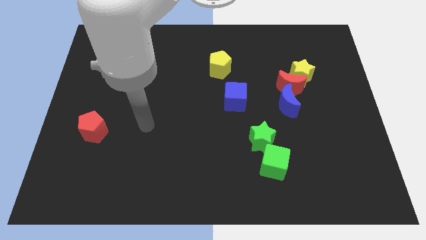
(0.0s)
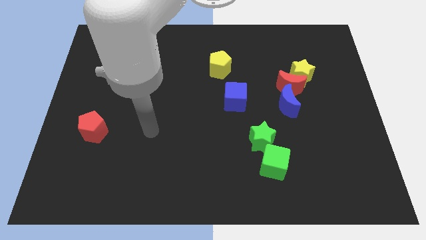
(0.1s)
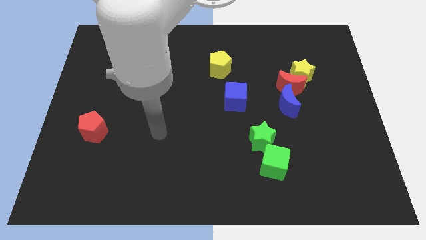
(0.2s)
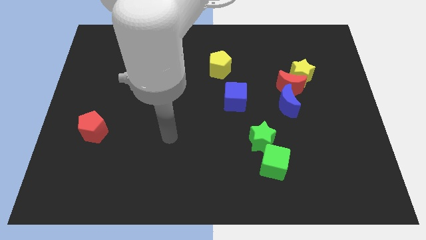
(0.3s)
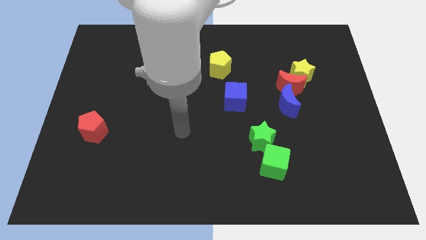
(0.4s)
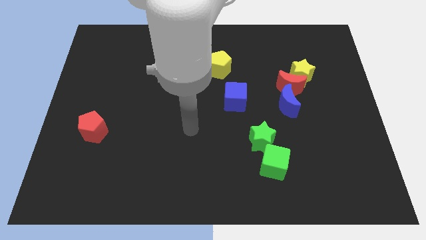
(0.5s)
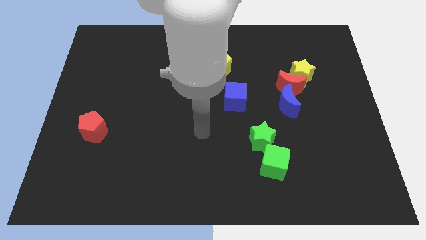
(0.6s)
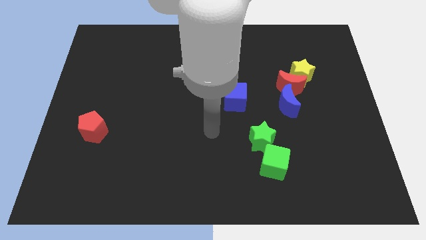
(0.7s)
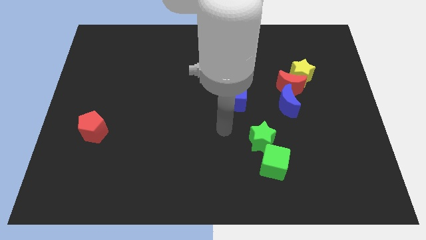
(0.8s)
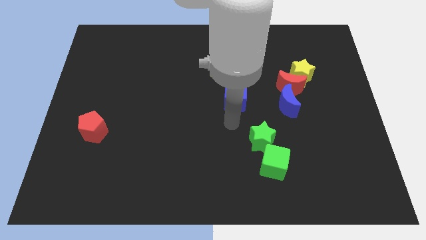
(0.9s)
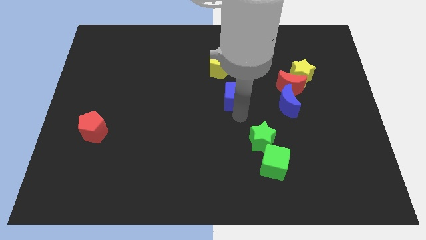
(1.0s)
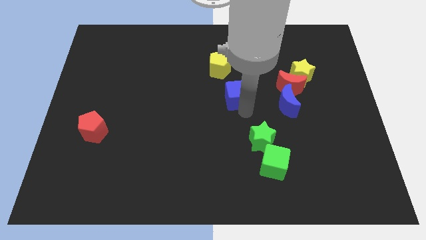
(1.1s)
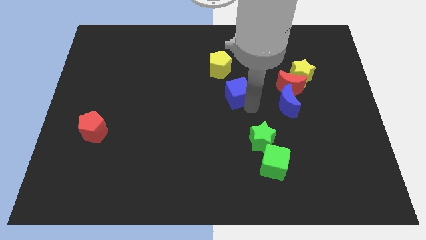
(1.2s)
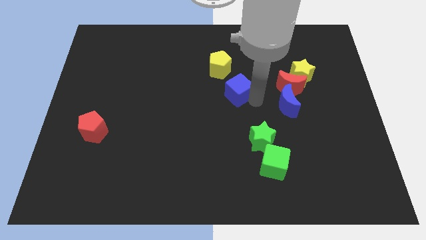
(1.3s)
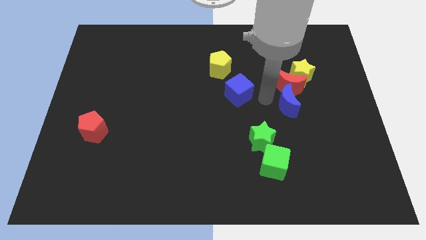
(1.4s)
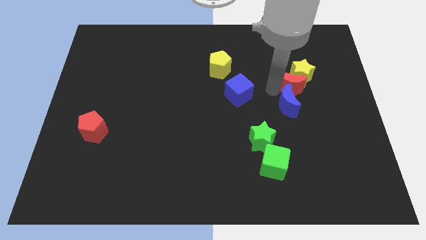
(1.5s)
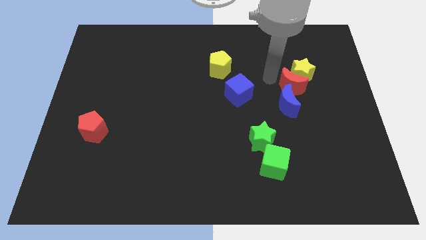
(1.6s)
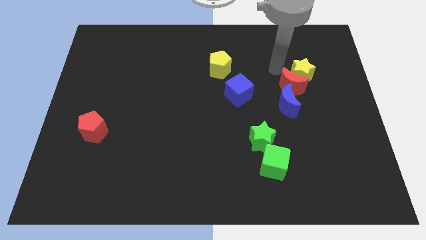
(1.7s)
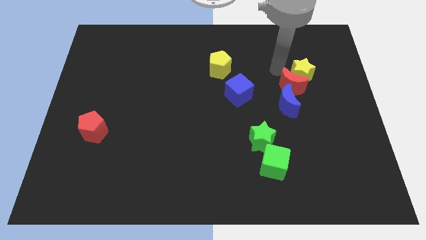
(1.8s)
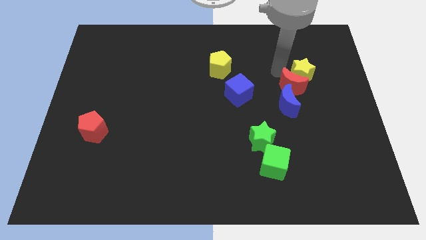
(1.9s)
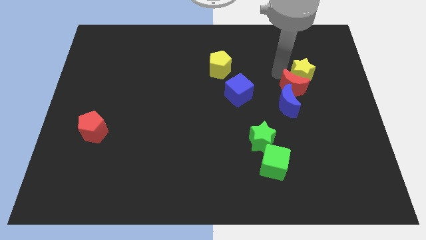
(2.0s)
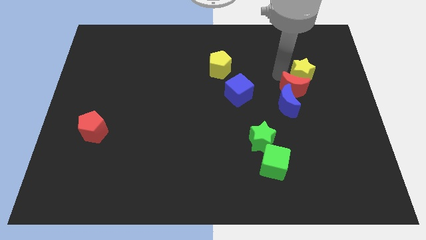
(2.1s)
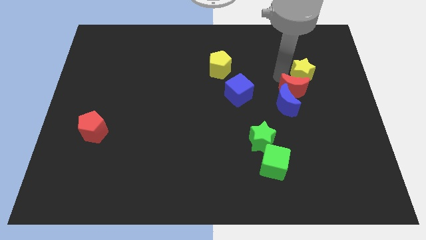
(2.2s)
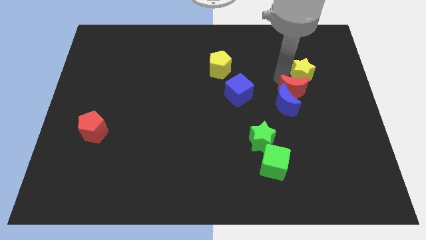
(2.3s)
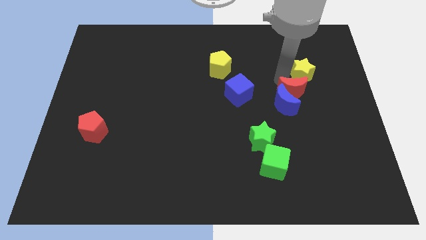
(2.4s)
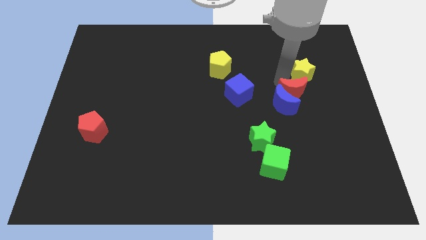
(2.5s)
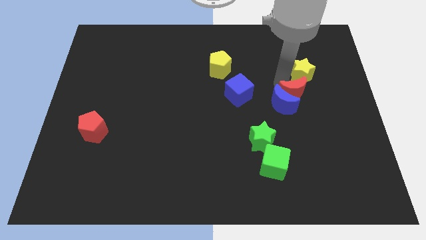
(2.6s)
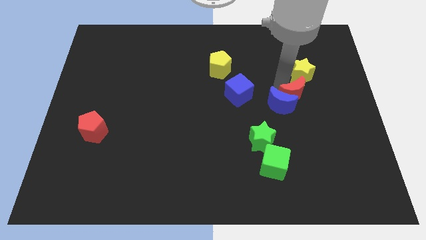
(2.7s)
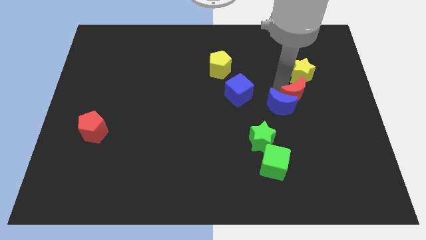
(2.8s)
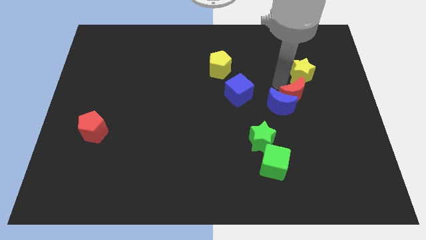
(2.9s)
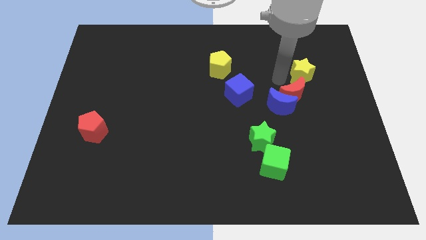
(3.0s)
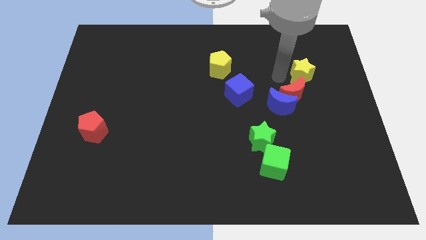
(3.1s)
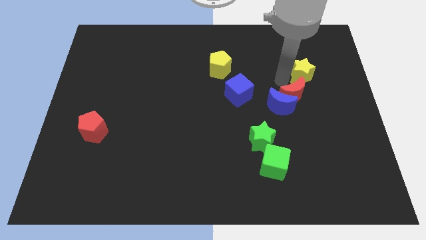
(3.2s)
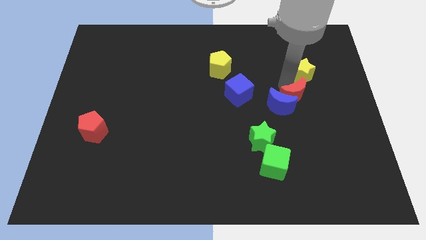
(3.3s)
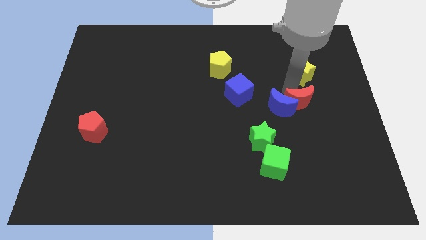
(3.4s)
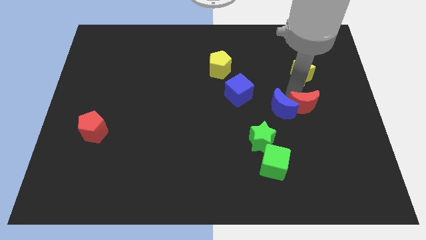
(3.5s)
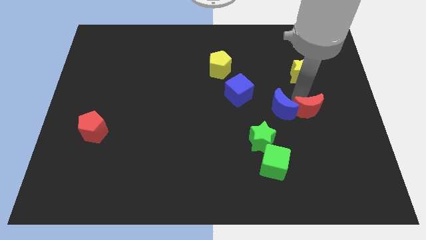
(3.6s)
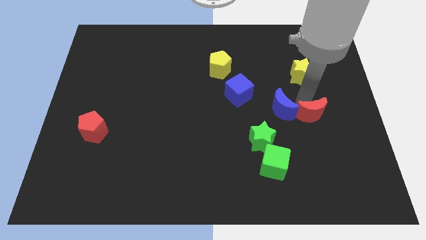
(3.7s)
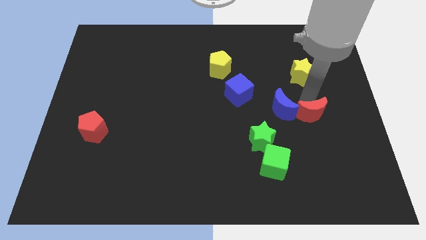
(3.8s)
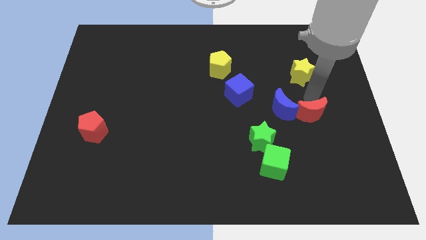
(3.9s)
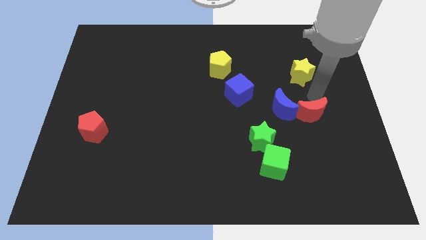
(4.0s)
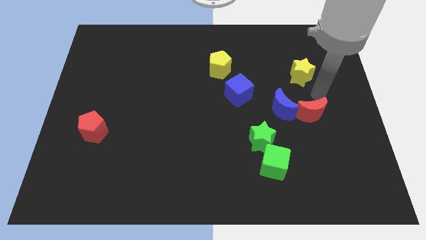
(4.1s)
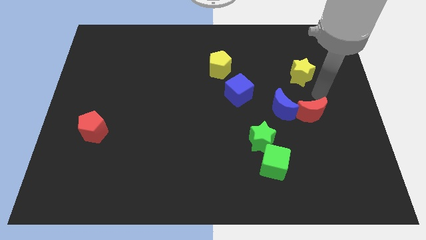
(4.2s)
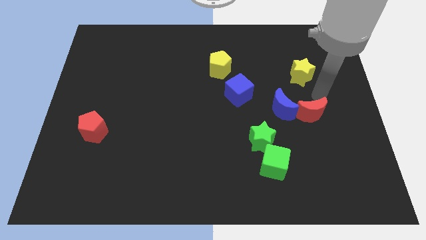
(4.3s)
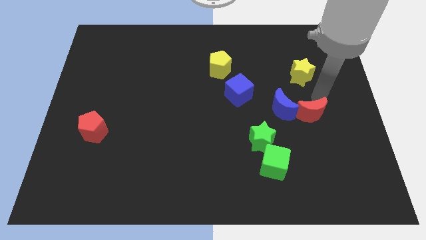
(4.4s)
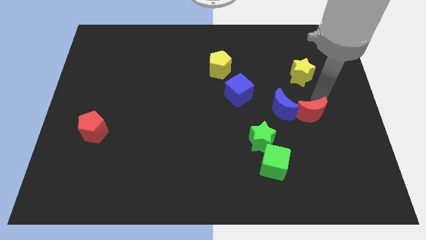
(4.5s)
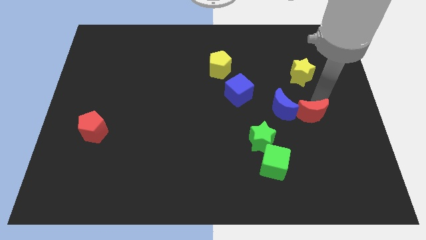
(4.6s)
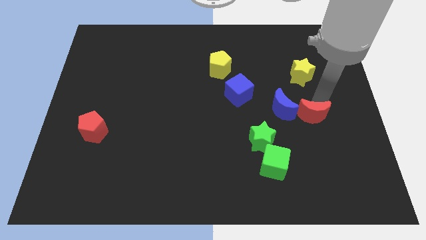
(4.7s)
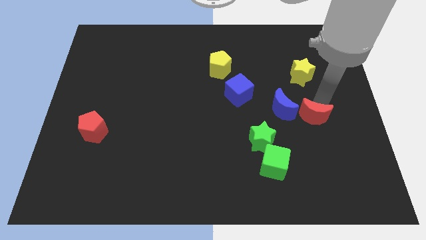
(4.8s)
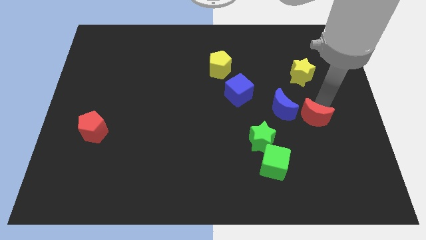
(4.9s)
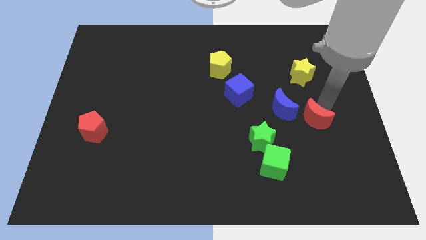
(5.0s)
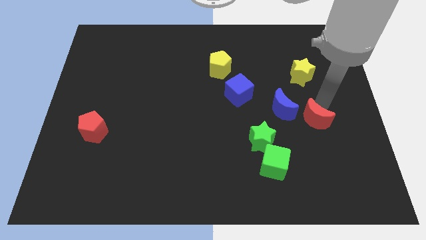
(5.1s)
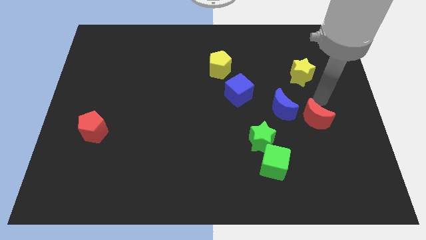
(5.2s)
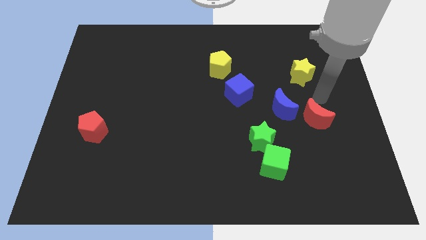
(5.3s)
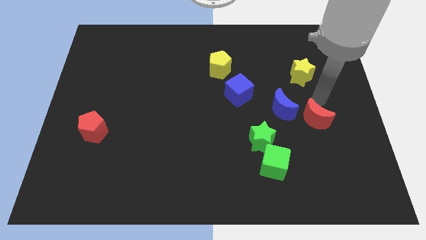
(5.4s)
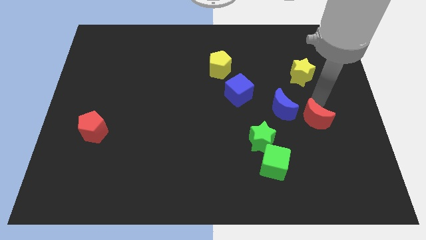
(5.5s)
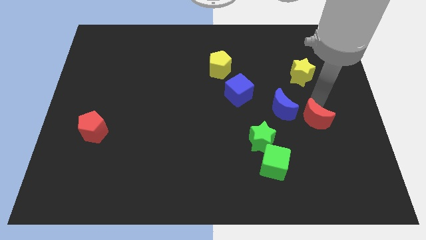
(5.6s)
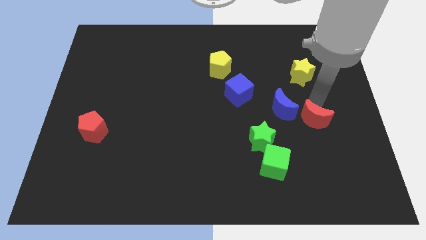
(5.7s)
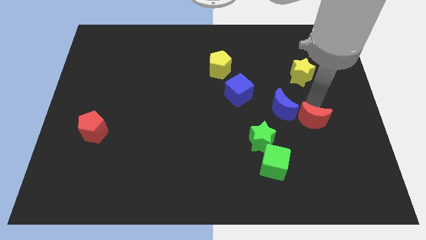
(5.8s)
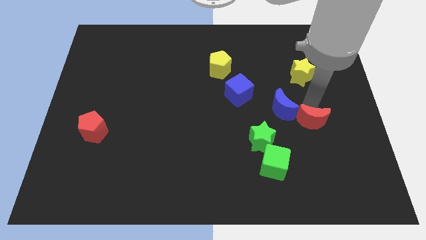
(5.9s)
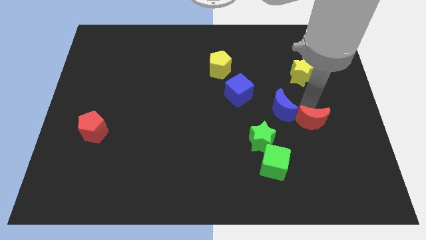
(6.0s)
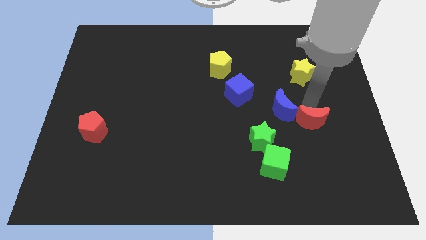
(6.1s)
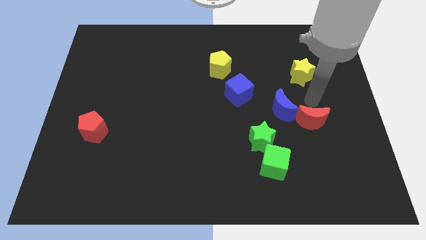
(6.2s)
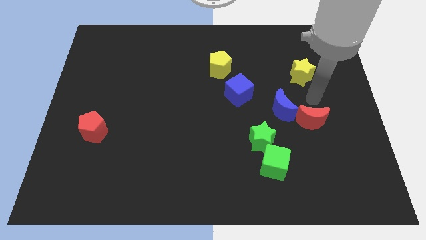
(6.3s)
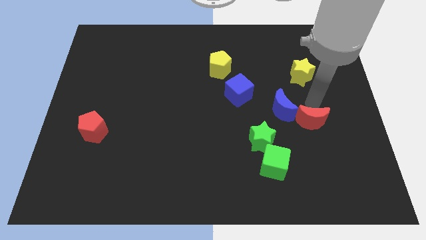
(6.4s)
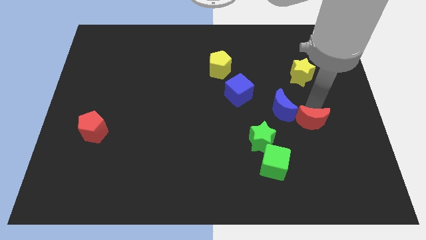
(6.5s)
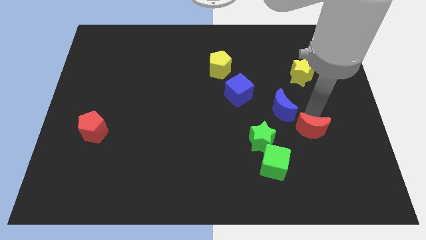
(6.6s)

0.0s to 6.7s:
put the red moon to the right of the green star
